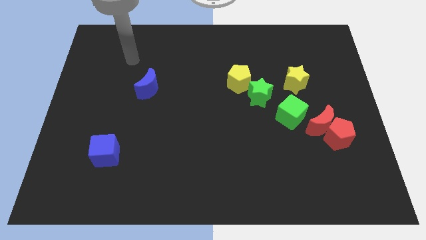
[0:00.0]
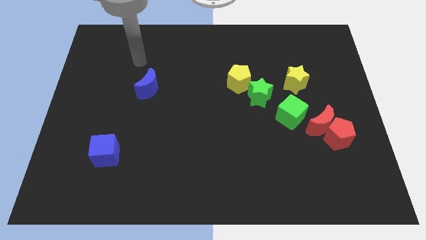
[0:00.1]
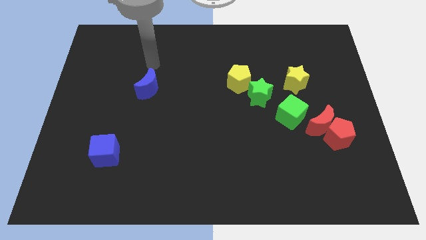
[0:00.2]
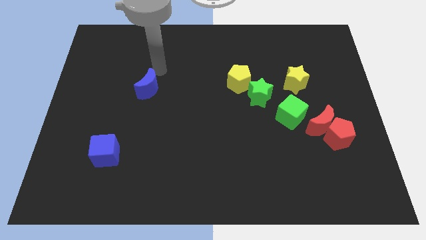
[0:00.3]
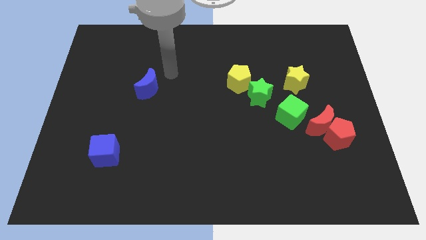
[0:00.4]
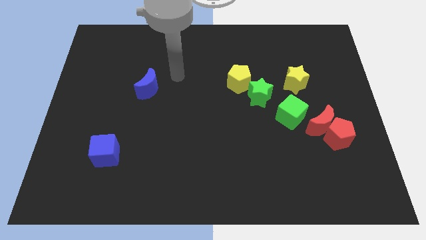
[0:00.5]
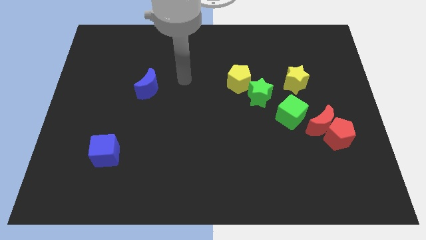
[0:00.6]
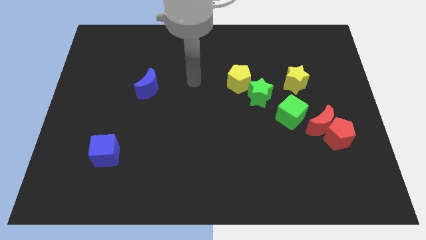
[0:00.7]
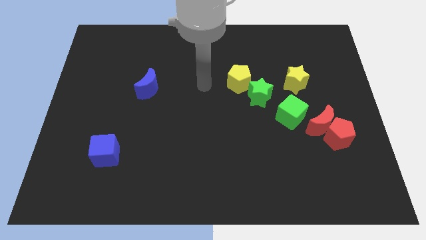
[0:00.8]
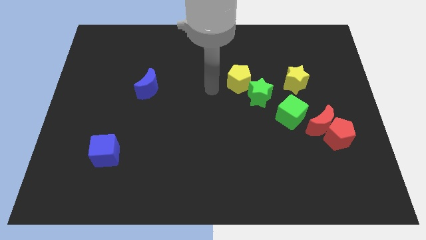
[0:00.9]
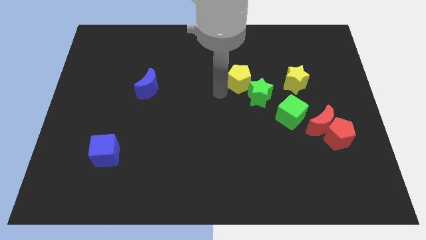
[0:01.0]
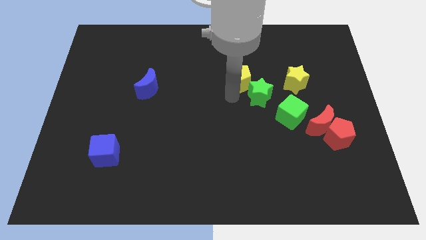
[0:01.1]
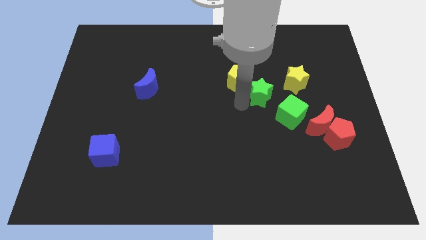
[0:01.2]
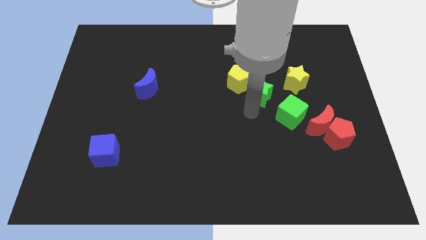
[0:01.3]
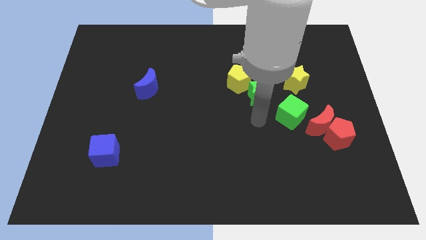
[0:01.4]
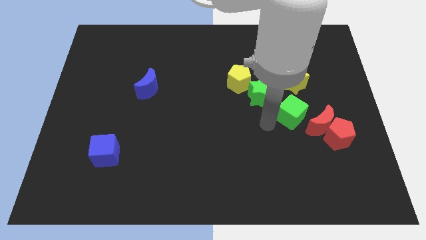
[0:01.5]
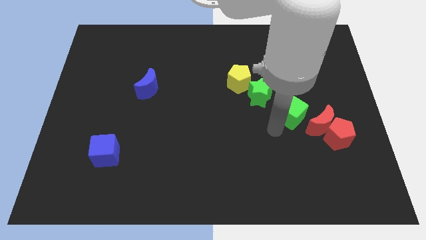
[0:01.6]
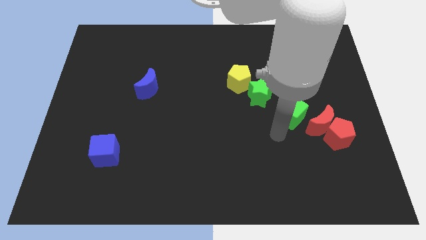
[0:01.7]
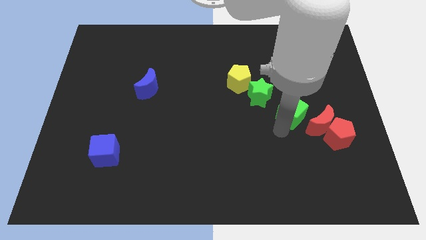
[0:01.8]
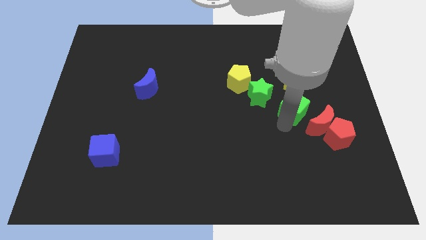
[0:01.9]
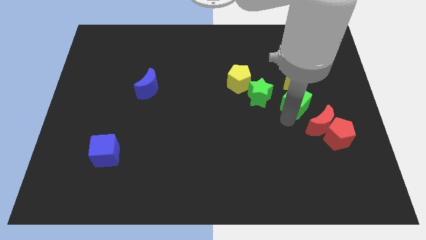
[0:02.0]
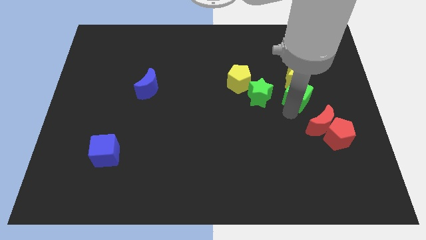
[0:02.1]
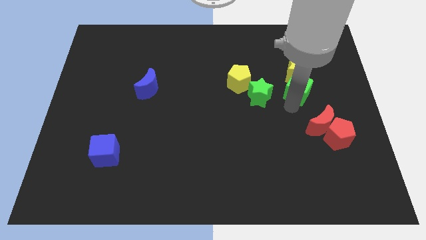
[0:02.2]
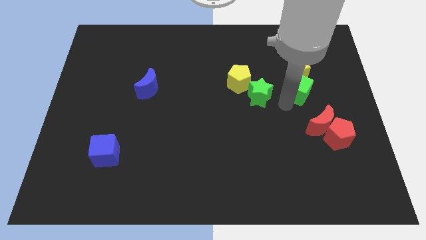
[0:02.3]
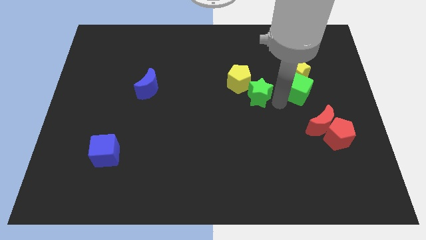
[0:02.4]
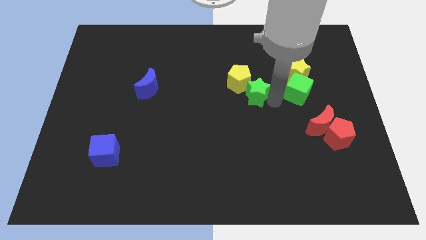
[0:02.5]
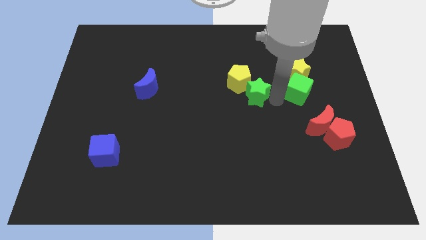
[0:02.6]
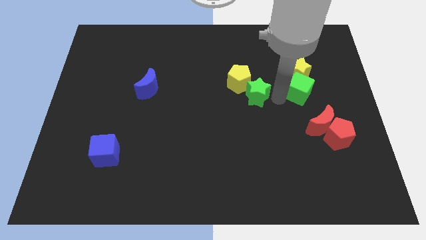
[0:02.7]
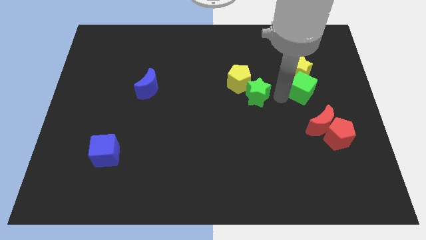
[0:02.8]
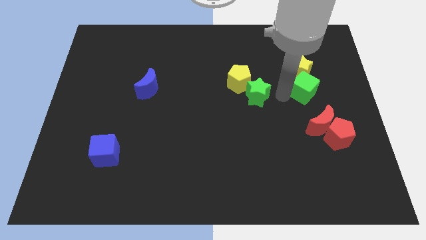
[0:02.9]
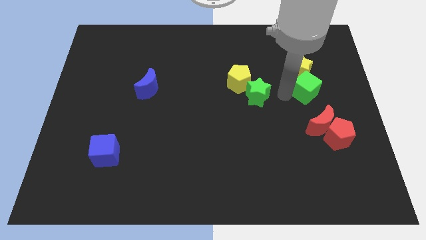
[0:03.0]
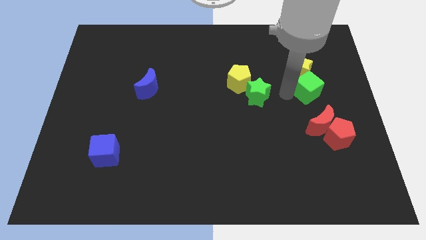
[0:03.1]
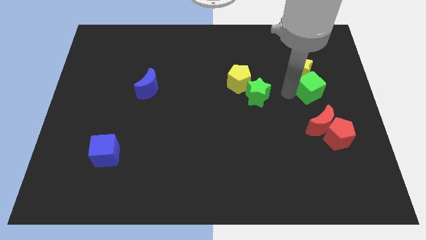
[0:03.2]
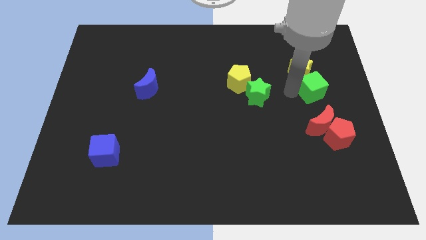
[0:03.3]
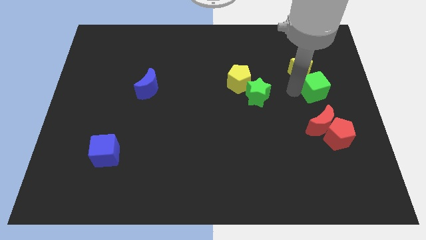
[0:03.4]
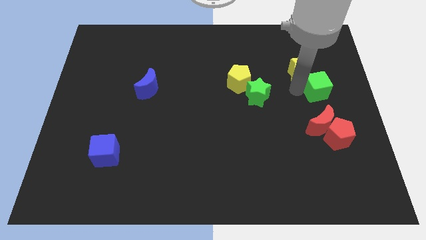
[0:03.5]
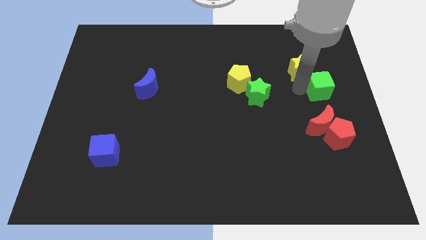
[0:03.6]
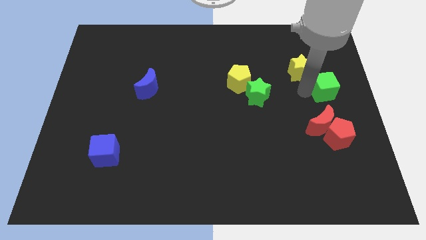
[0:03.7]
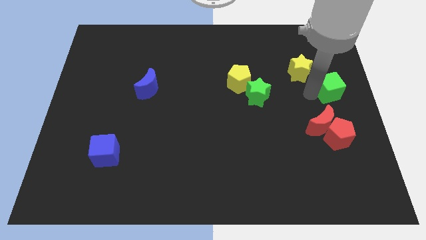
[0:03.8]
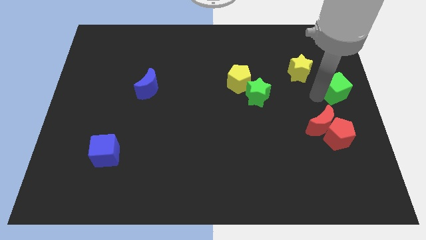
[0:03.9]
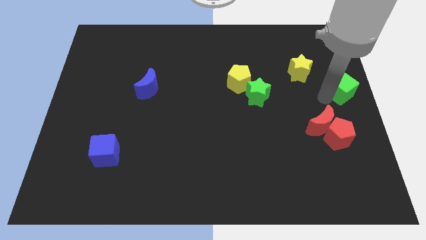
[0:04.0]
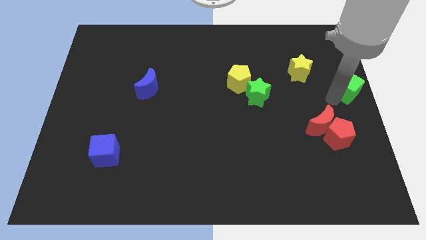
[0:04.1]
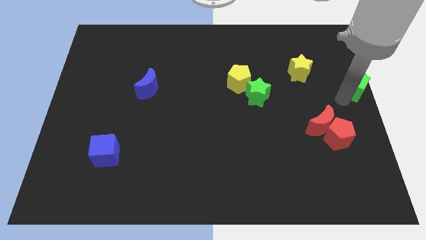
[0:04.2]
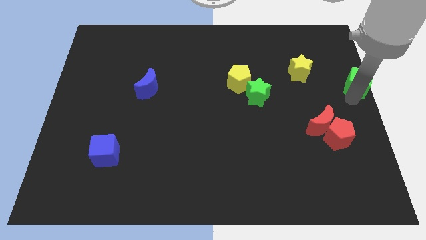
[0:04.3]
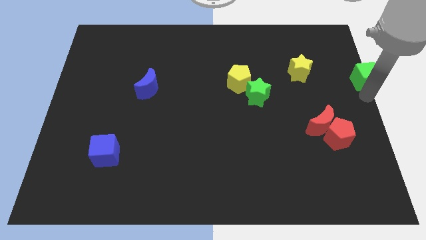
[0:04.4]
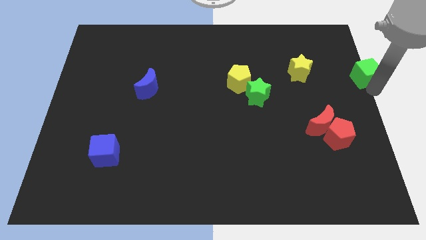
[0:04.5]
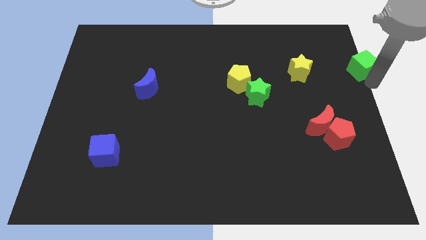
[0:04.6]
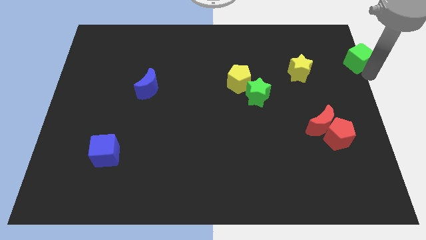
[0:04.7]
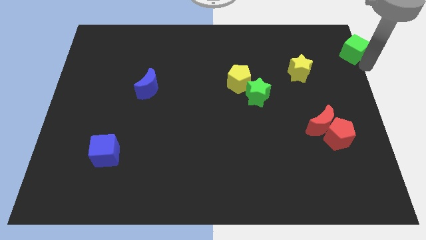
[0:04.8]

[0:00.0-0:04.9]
push the green cube to the top right corner

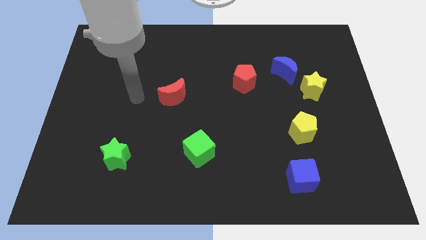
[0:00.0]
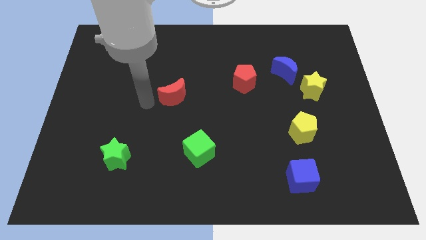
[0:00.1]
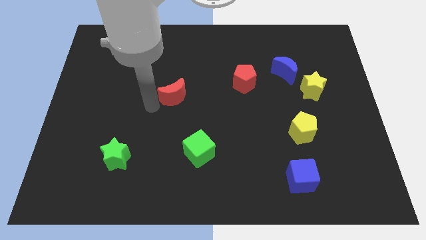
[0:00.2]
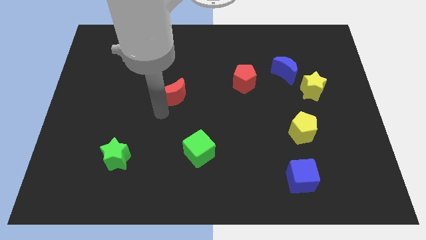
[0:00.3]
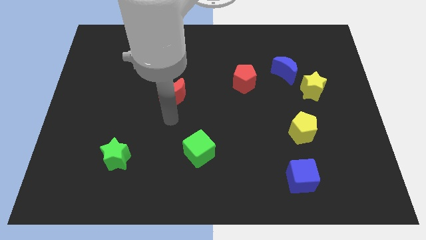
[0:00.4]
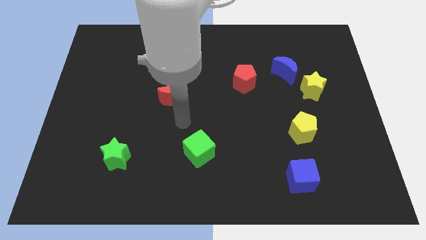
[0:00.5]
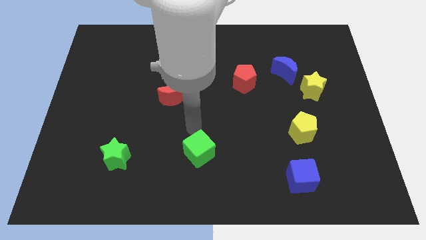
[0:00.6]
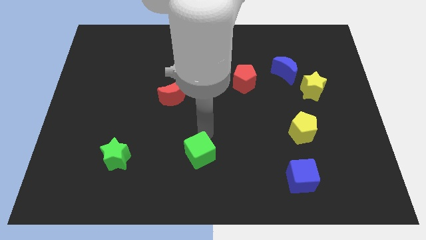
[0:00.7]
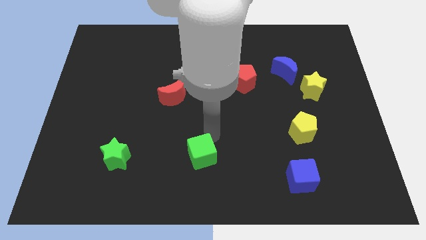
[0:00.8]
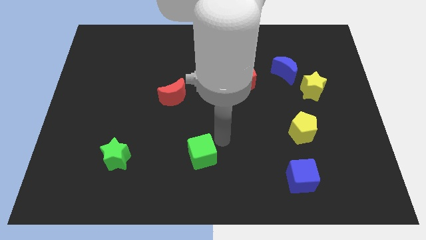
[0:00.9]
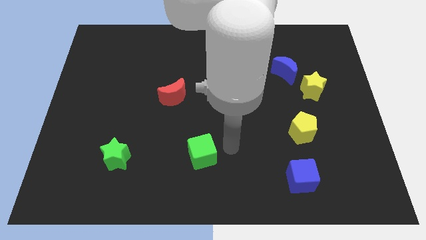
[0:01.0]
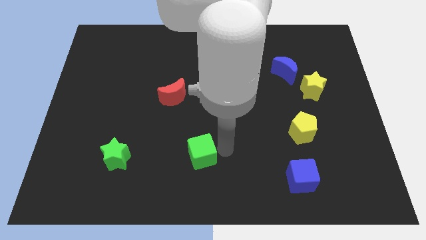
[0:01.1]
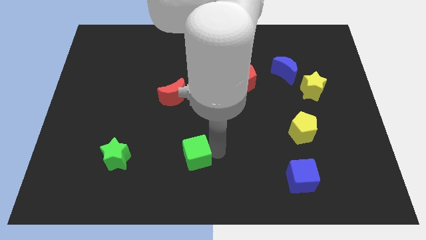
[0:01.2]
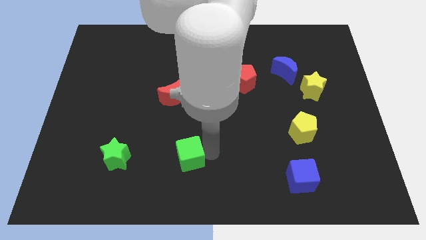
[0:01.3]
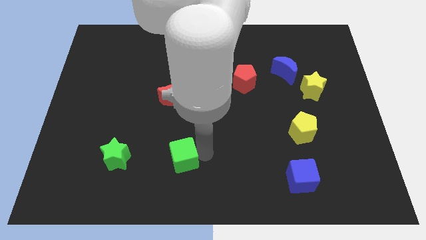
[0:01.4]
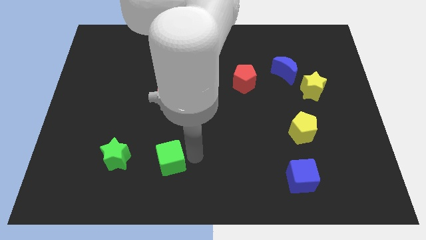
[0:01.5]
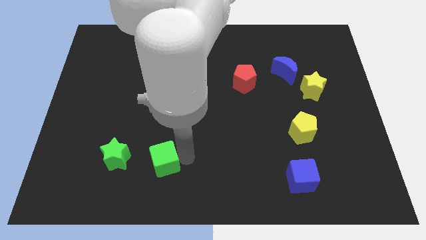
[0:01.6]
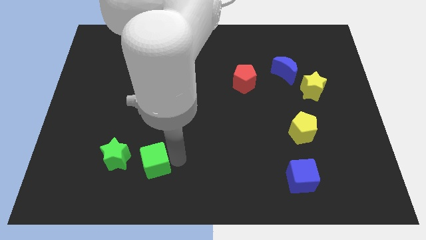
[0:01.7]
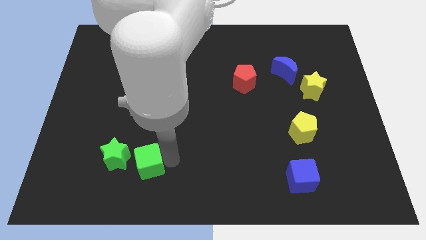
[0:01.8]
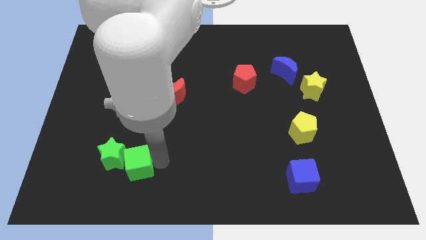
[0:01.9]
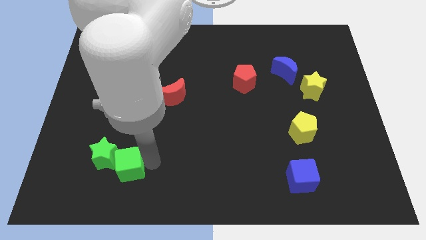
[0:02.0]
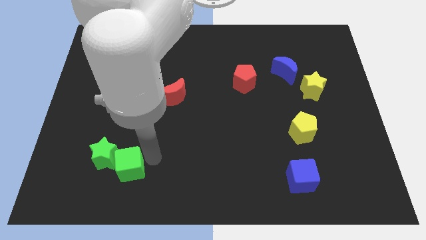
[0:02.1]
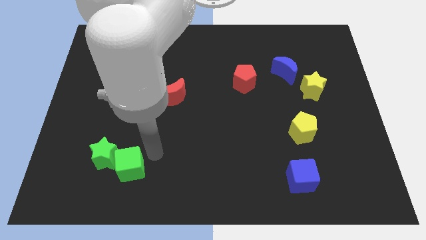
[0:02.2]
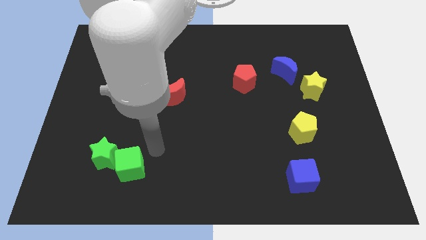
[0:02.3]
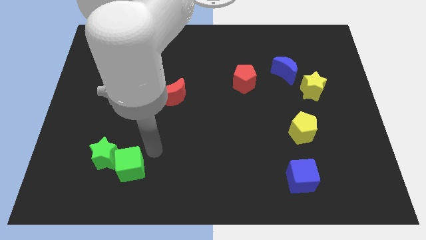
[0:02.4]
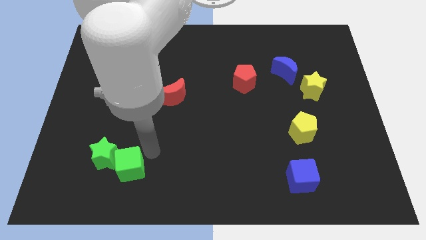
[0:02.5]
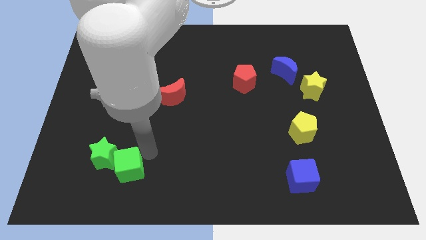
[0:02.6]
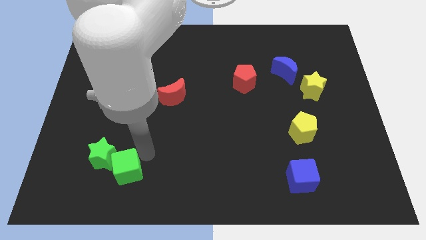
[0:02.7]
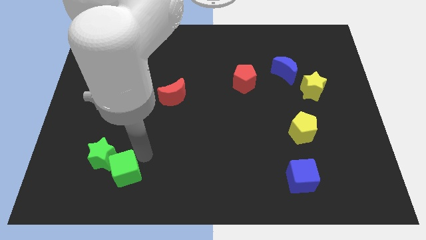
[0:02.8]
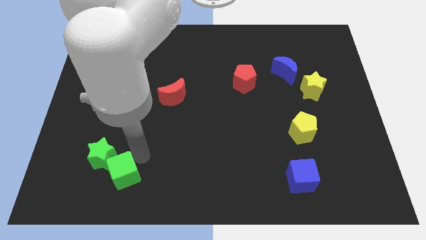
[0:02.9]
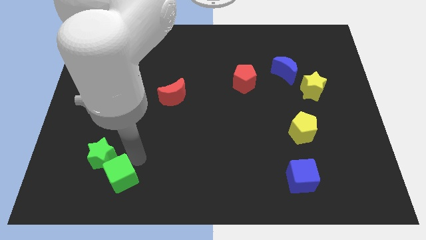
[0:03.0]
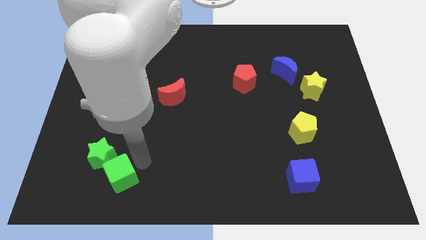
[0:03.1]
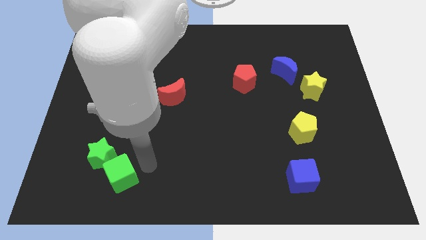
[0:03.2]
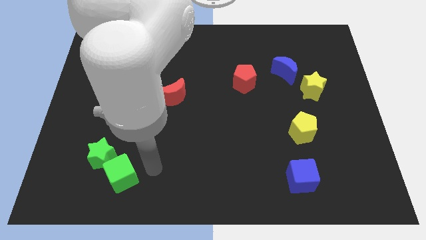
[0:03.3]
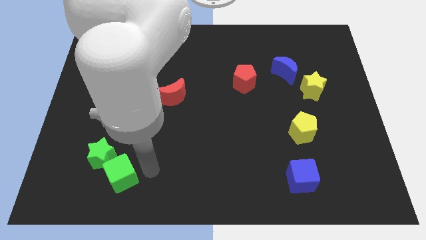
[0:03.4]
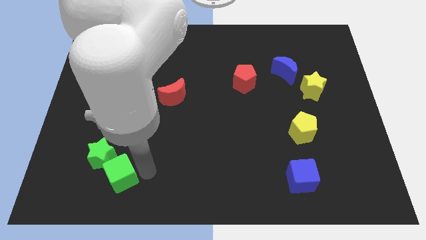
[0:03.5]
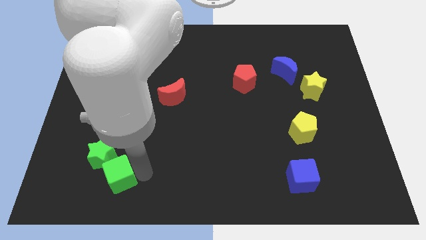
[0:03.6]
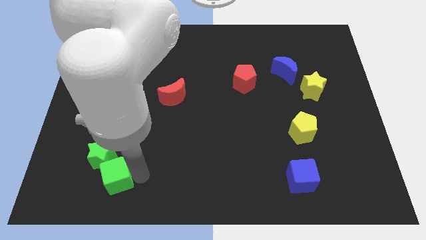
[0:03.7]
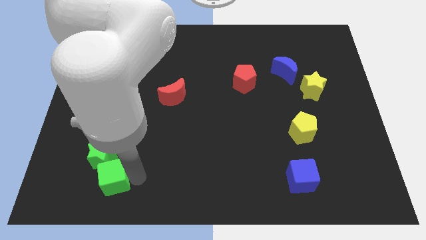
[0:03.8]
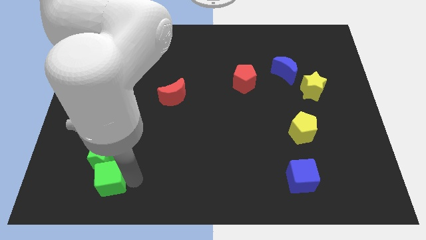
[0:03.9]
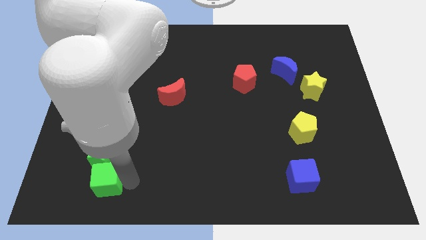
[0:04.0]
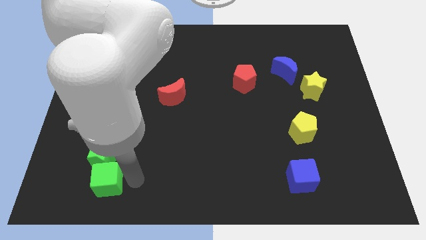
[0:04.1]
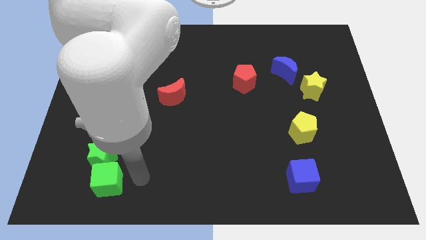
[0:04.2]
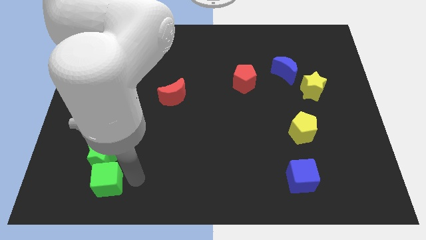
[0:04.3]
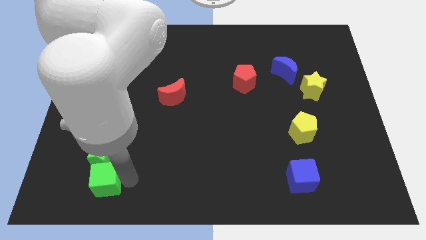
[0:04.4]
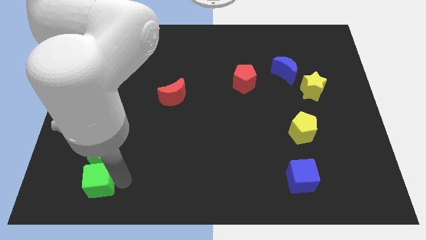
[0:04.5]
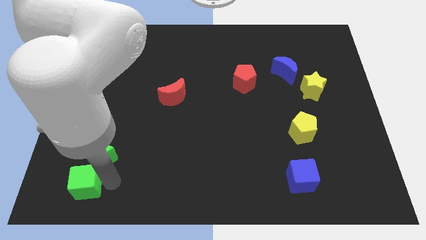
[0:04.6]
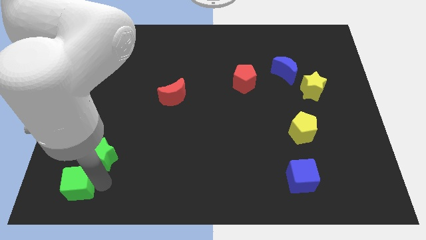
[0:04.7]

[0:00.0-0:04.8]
put the green cube to the bottom left of the board
